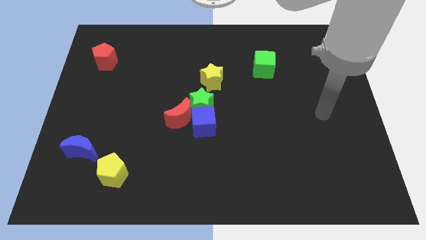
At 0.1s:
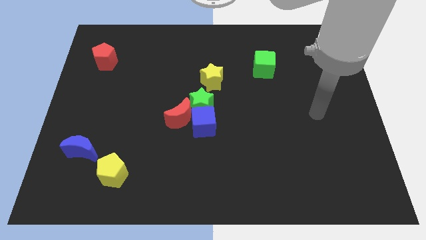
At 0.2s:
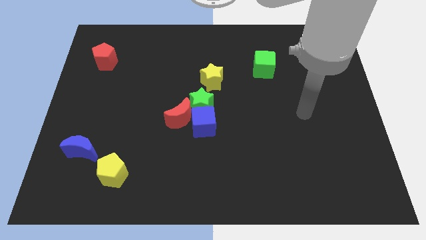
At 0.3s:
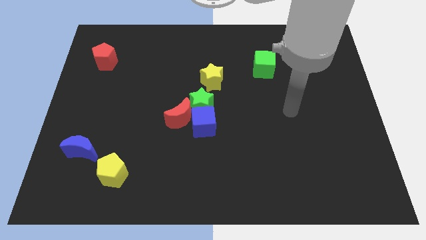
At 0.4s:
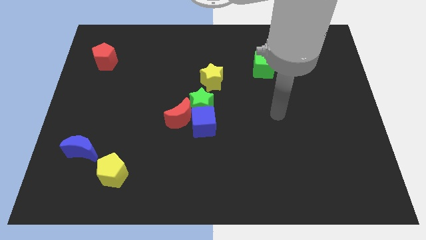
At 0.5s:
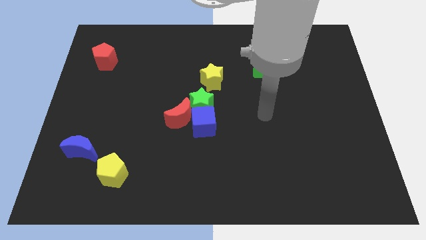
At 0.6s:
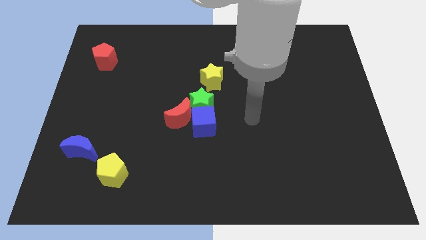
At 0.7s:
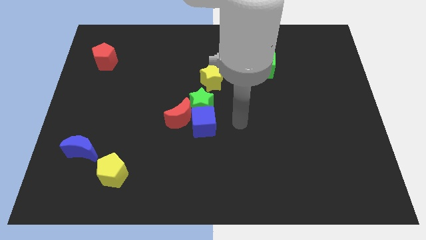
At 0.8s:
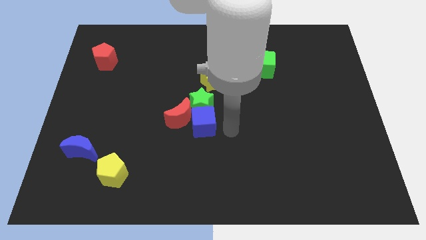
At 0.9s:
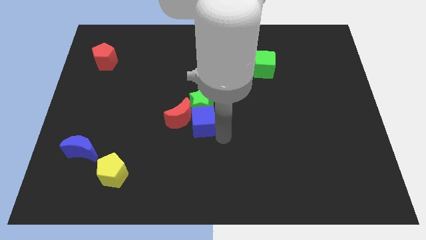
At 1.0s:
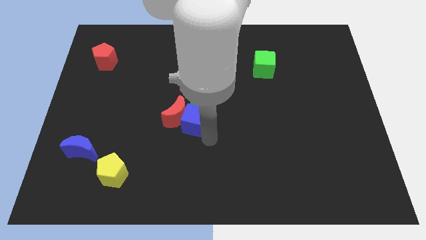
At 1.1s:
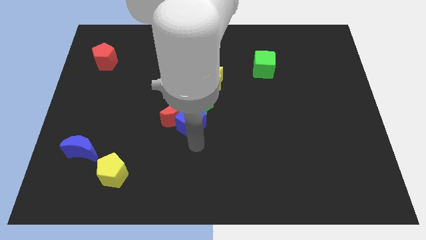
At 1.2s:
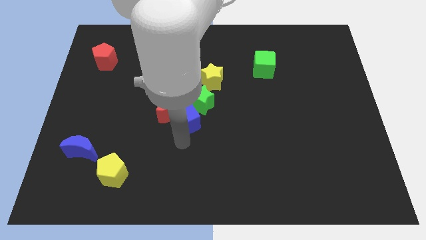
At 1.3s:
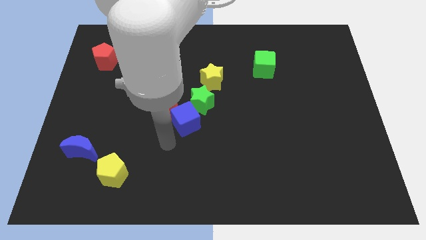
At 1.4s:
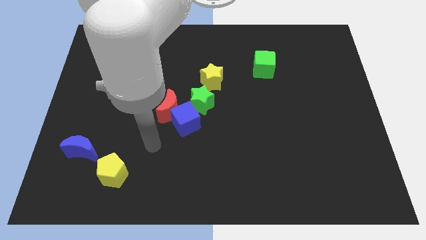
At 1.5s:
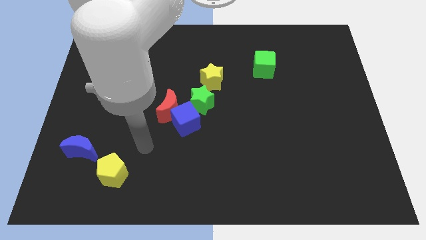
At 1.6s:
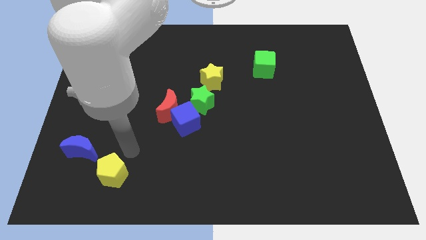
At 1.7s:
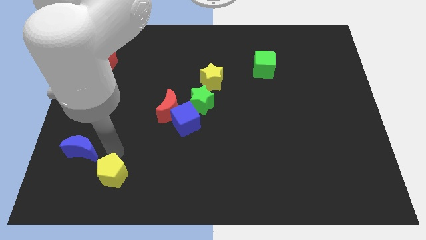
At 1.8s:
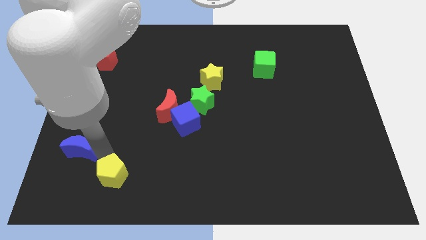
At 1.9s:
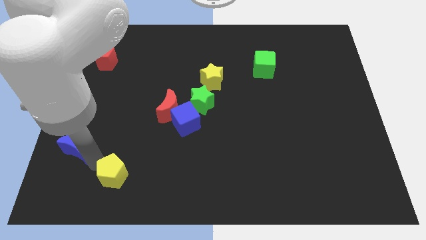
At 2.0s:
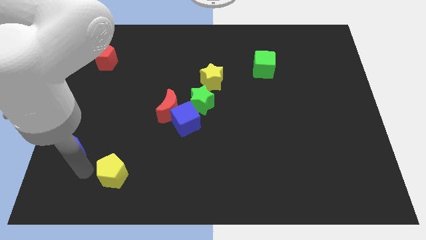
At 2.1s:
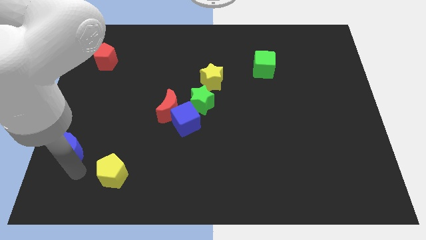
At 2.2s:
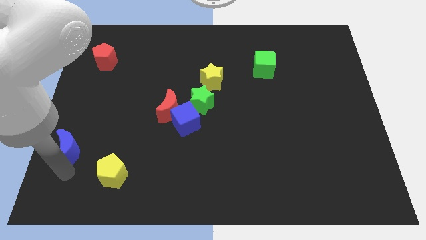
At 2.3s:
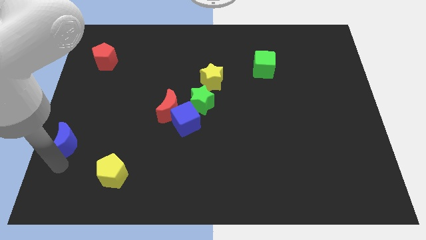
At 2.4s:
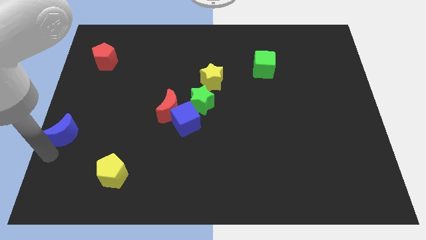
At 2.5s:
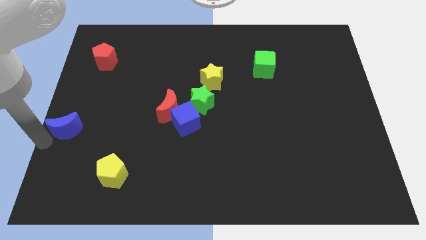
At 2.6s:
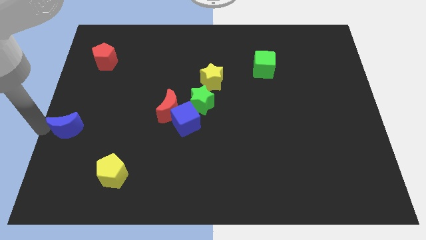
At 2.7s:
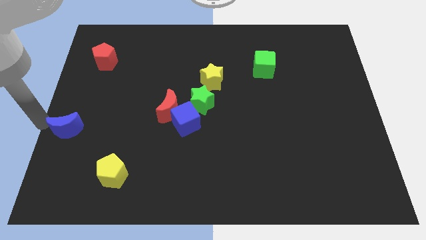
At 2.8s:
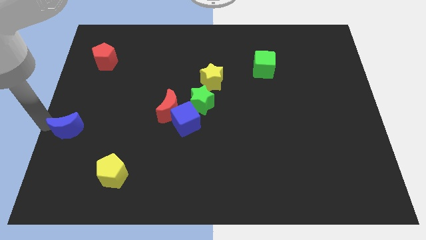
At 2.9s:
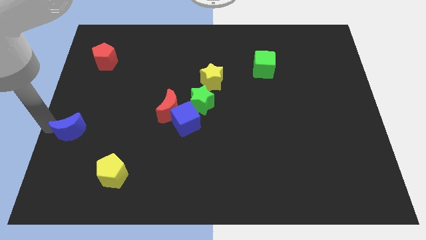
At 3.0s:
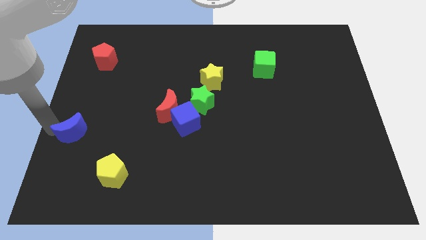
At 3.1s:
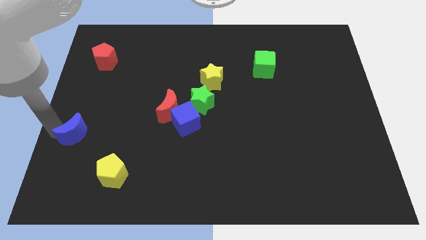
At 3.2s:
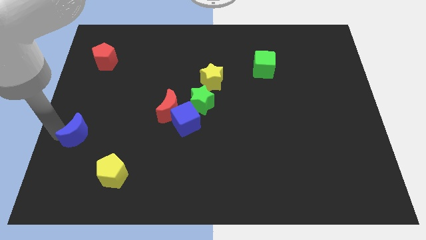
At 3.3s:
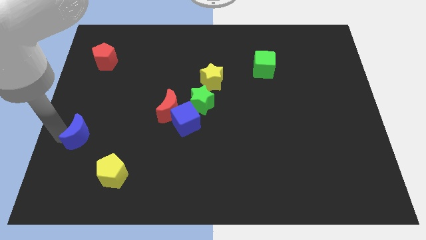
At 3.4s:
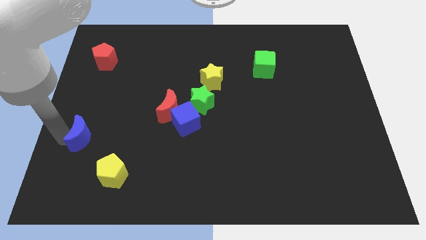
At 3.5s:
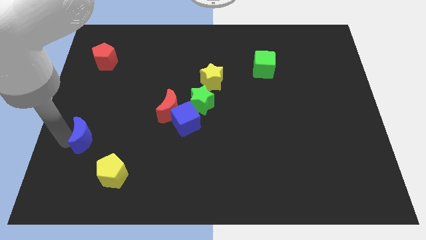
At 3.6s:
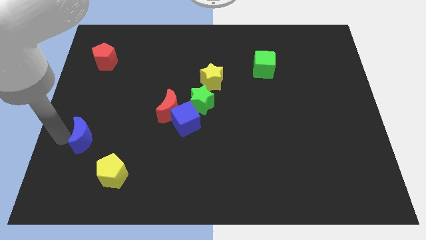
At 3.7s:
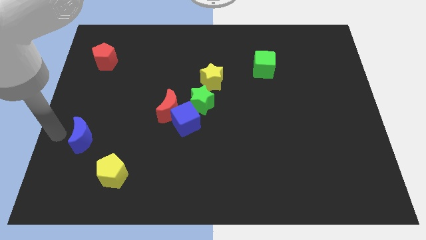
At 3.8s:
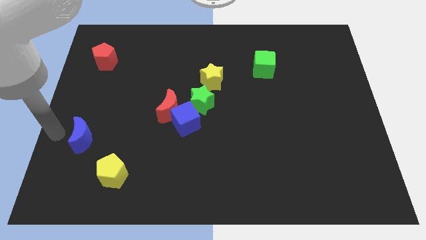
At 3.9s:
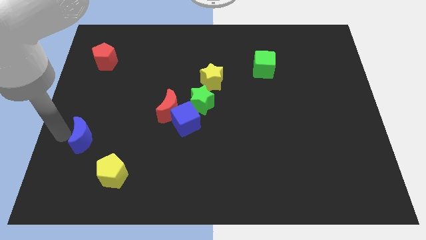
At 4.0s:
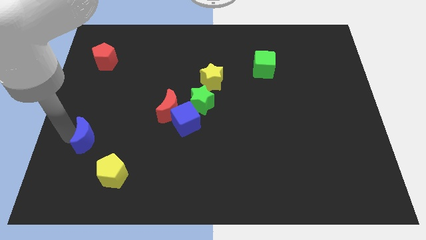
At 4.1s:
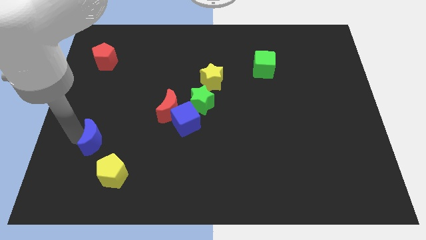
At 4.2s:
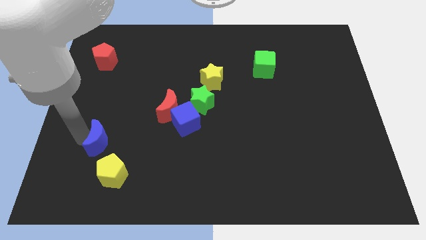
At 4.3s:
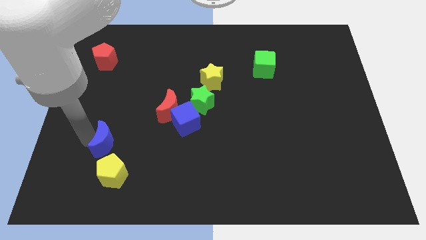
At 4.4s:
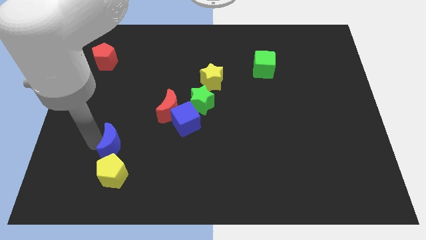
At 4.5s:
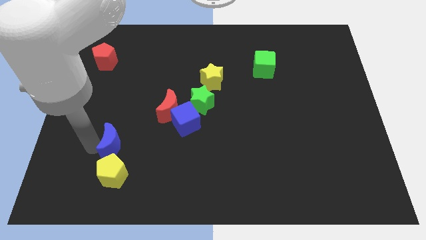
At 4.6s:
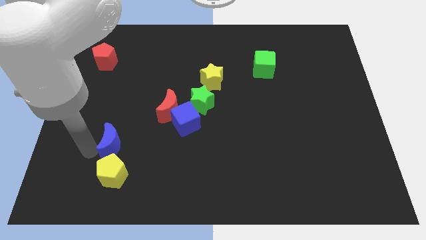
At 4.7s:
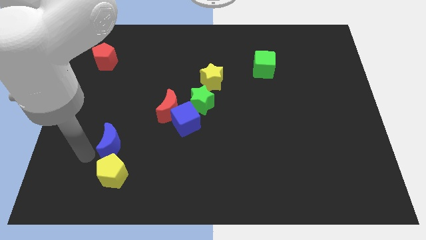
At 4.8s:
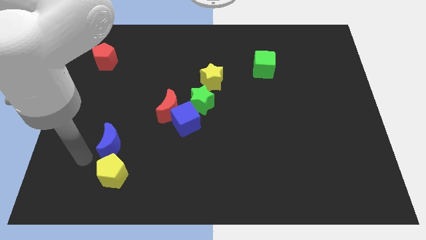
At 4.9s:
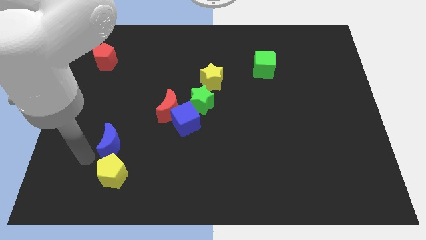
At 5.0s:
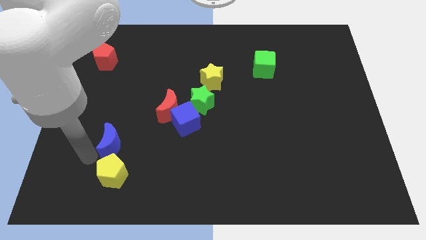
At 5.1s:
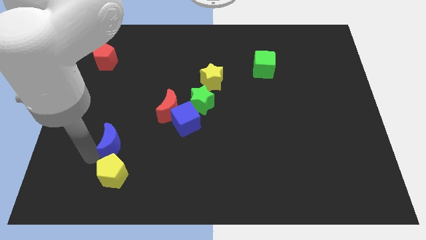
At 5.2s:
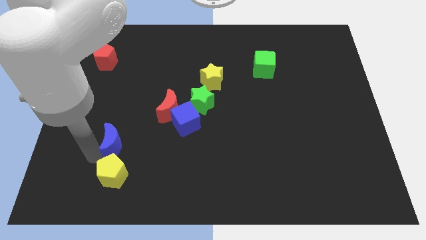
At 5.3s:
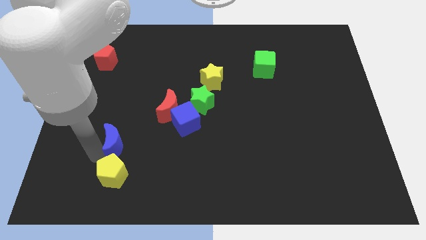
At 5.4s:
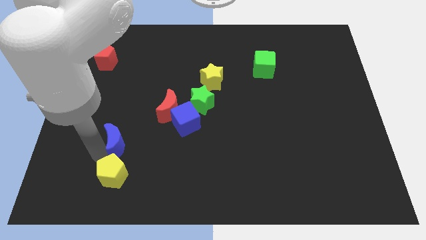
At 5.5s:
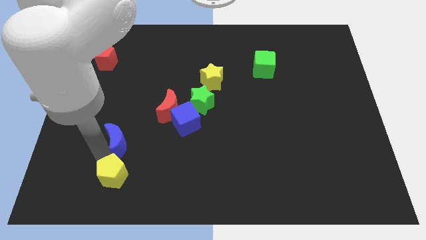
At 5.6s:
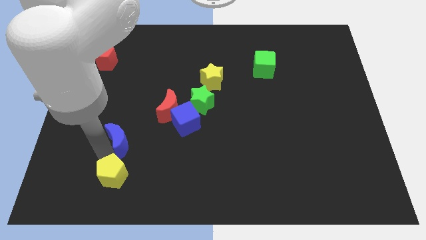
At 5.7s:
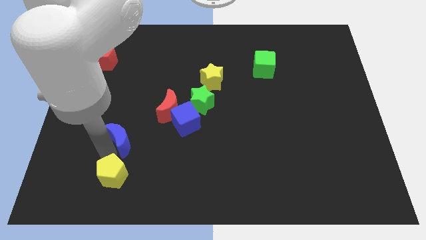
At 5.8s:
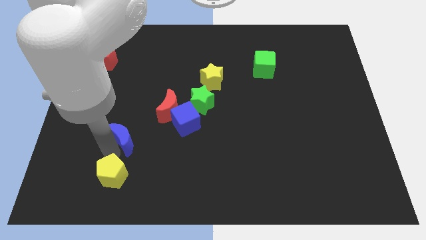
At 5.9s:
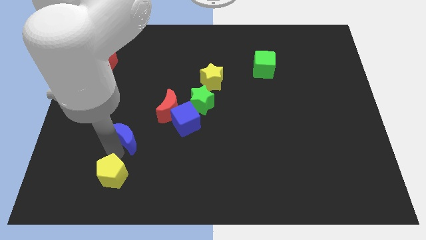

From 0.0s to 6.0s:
put the blue moon left of the blue cube

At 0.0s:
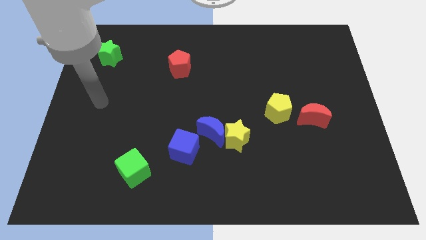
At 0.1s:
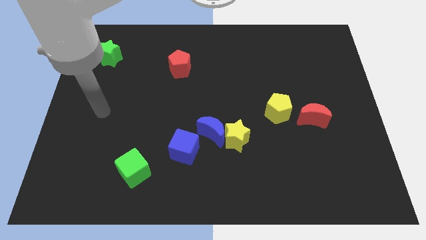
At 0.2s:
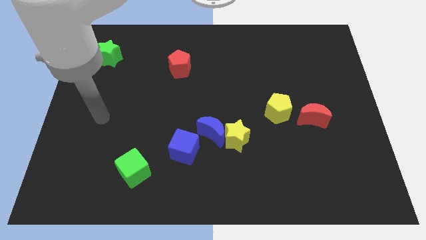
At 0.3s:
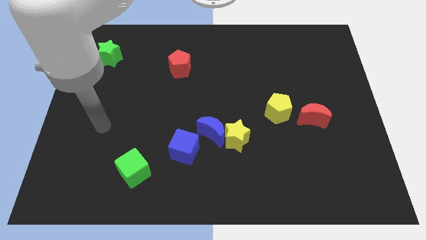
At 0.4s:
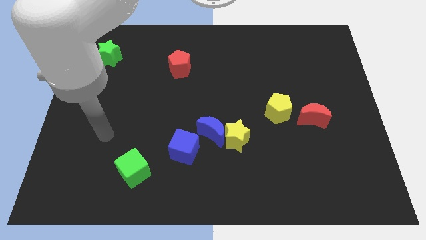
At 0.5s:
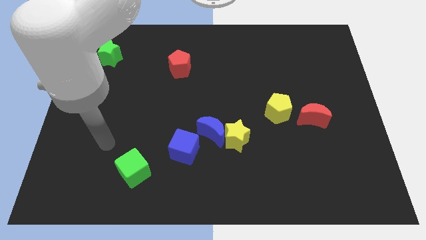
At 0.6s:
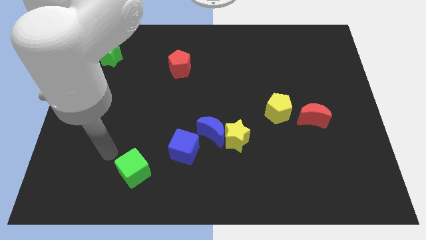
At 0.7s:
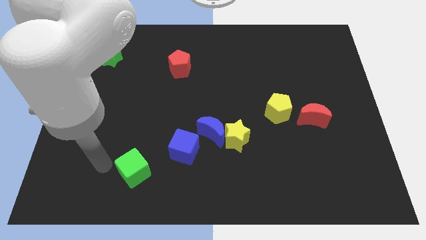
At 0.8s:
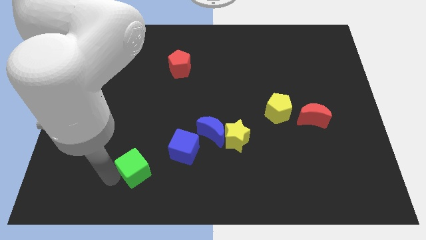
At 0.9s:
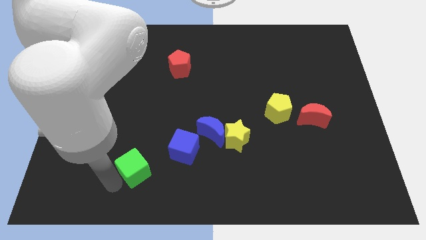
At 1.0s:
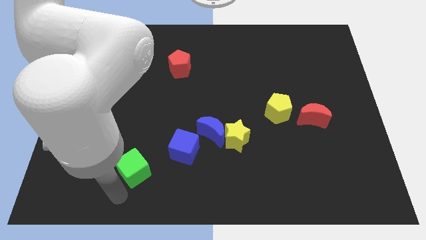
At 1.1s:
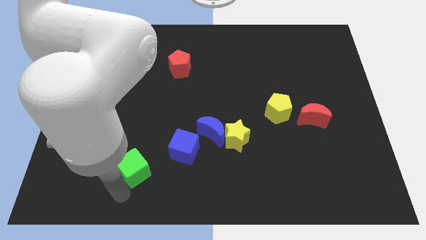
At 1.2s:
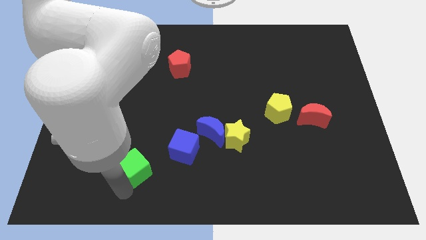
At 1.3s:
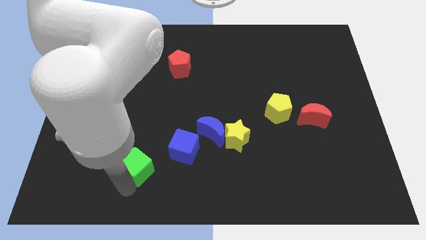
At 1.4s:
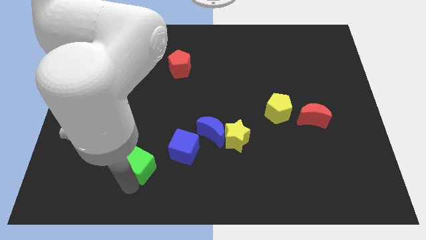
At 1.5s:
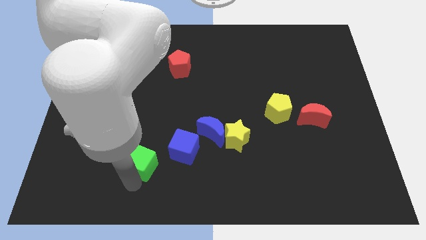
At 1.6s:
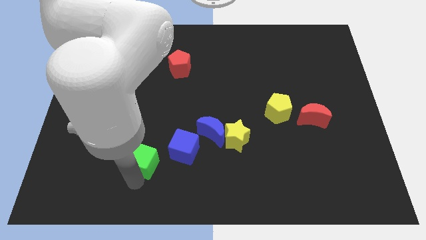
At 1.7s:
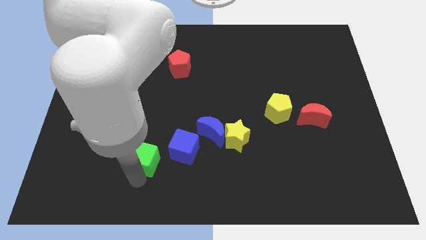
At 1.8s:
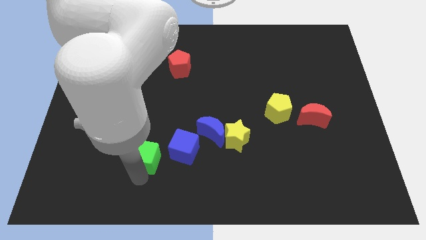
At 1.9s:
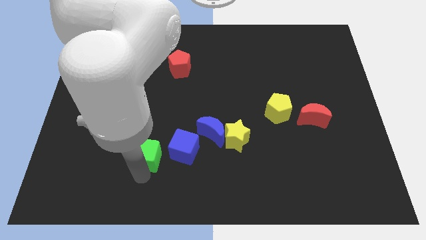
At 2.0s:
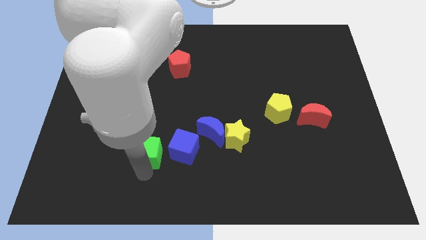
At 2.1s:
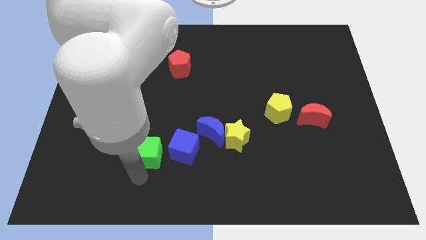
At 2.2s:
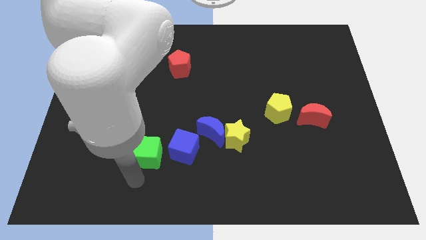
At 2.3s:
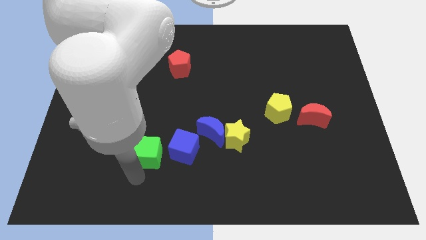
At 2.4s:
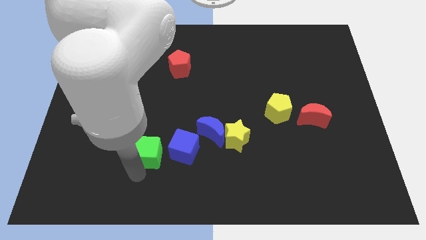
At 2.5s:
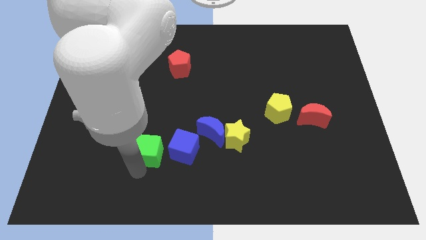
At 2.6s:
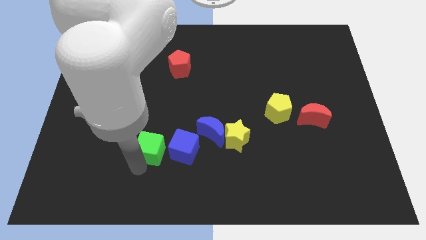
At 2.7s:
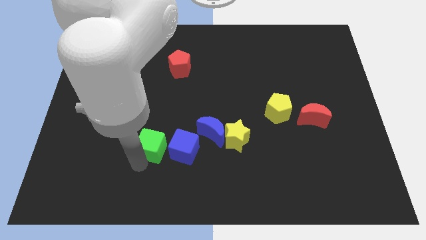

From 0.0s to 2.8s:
slide the green cube to the top left of the blue cube
